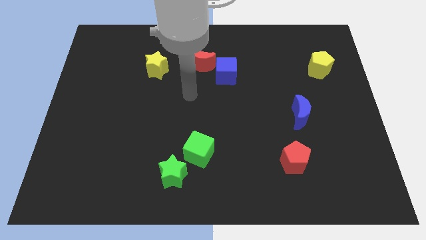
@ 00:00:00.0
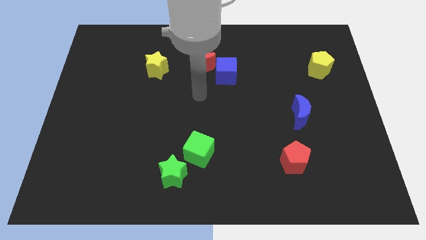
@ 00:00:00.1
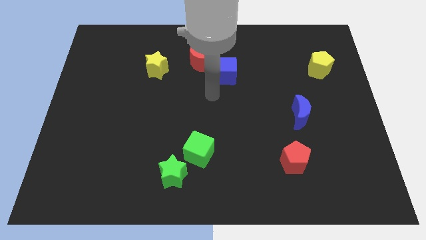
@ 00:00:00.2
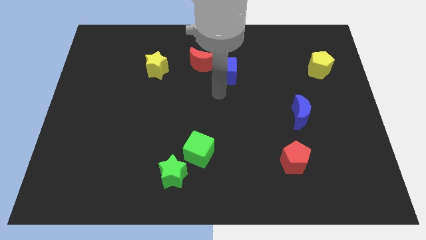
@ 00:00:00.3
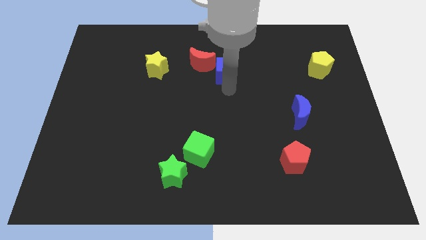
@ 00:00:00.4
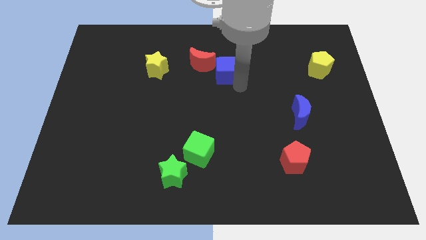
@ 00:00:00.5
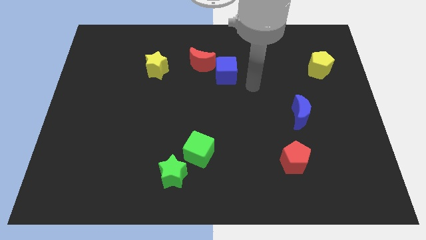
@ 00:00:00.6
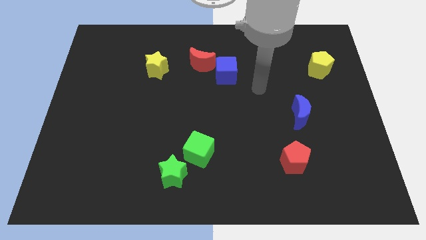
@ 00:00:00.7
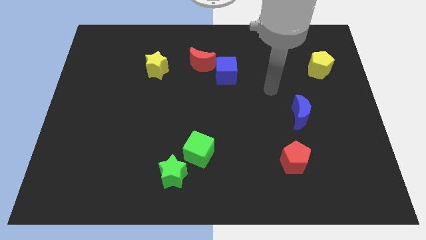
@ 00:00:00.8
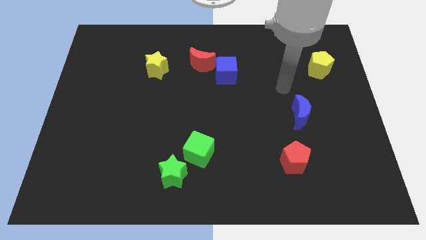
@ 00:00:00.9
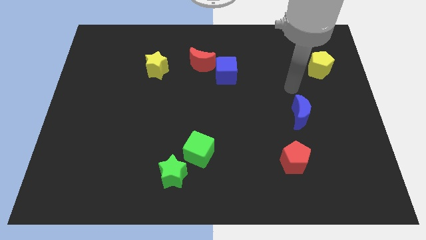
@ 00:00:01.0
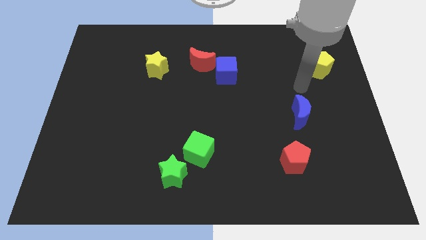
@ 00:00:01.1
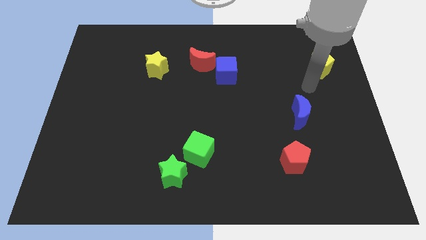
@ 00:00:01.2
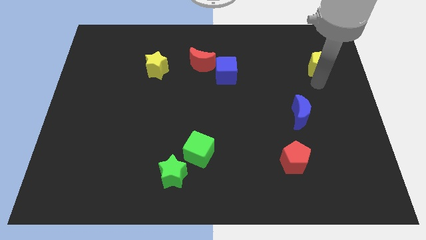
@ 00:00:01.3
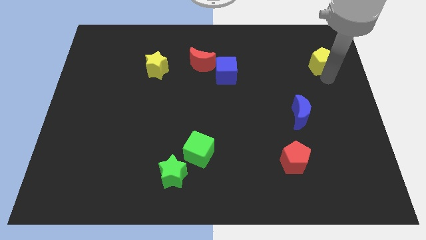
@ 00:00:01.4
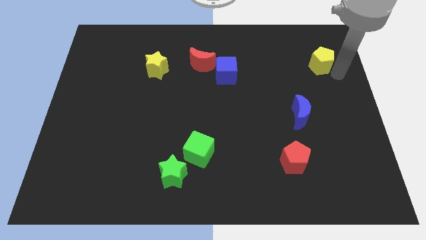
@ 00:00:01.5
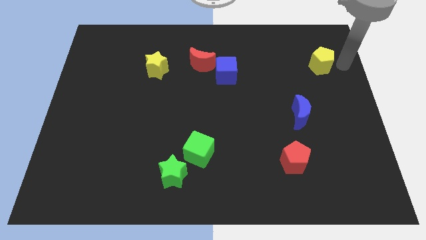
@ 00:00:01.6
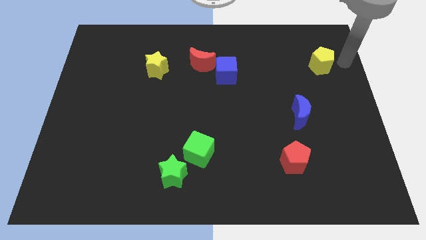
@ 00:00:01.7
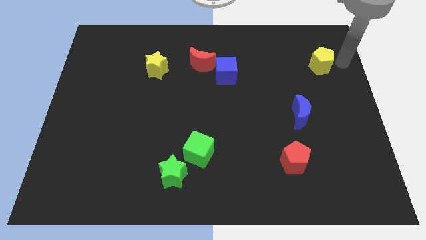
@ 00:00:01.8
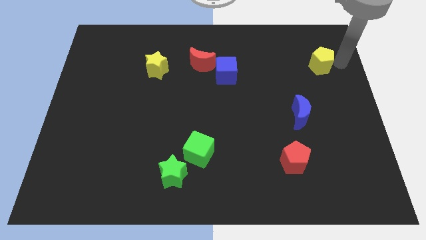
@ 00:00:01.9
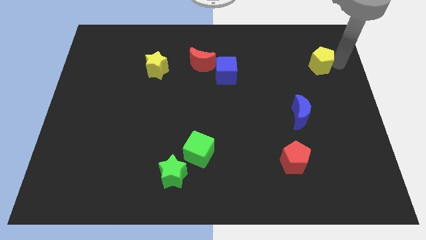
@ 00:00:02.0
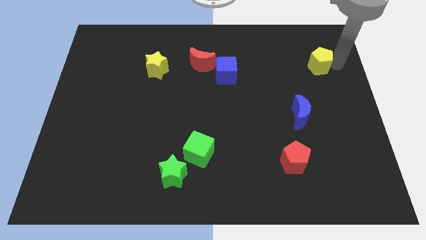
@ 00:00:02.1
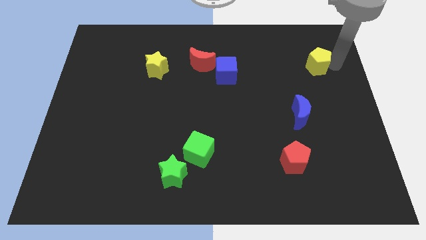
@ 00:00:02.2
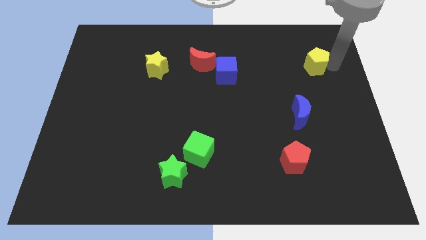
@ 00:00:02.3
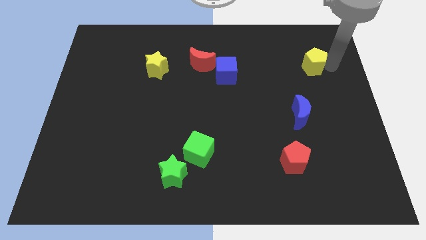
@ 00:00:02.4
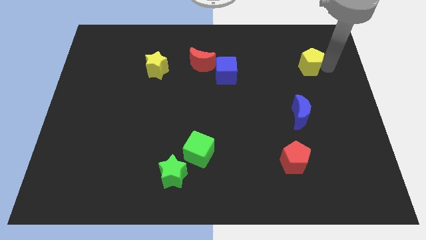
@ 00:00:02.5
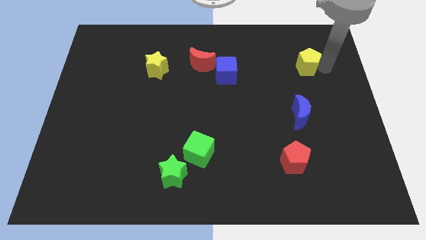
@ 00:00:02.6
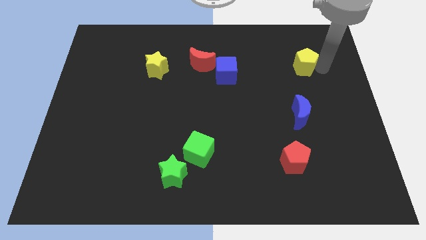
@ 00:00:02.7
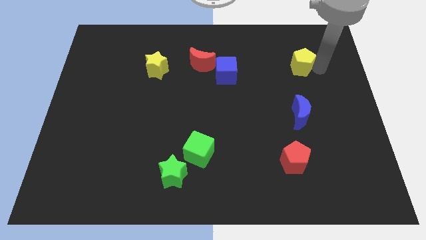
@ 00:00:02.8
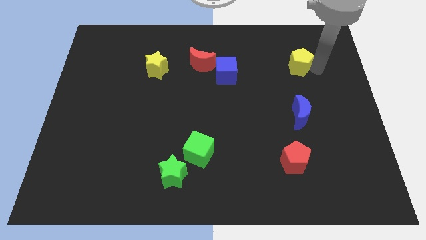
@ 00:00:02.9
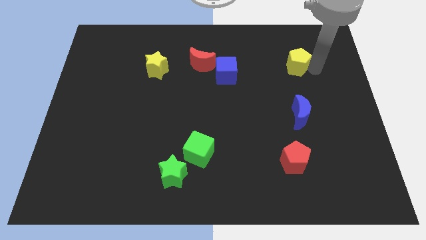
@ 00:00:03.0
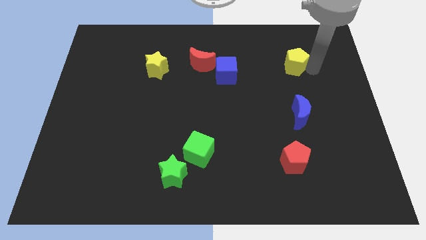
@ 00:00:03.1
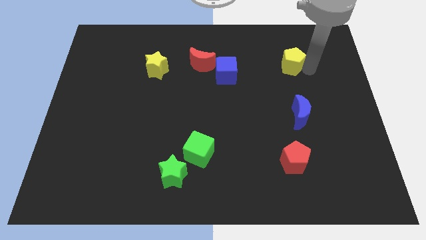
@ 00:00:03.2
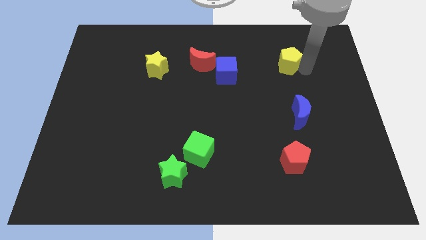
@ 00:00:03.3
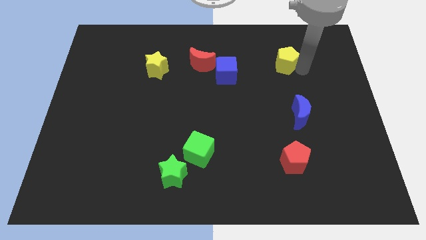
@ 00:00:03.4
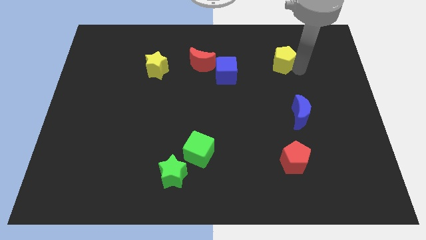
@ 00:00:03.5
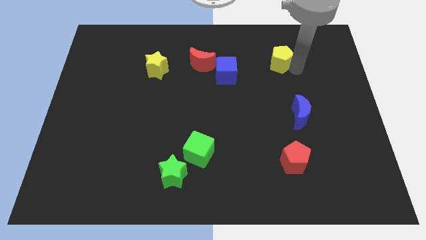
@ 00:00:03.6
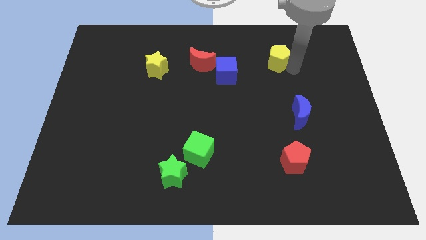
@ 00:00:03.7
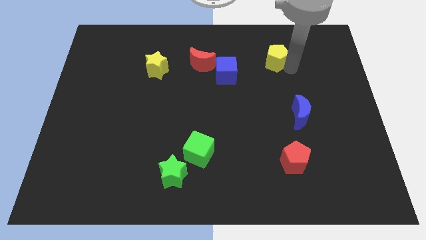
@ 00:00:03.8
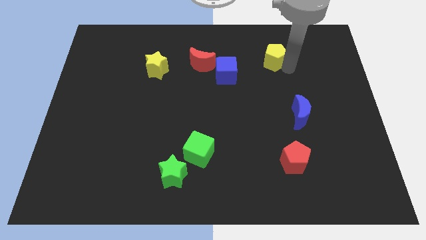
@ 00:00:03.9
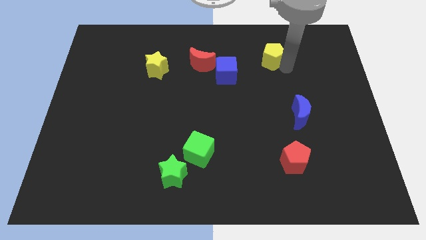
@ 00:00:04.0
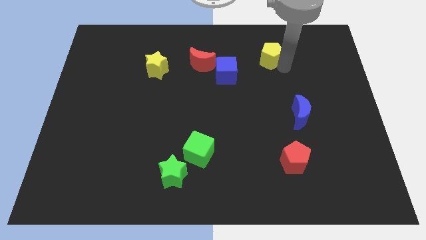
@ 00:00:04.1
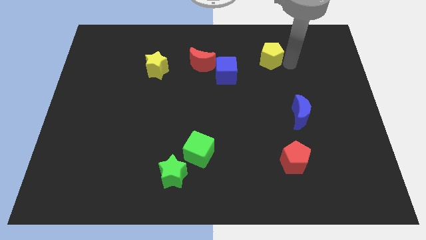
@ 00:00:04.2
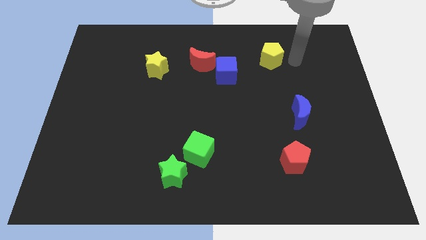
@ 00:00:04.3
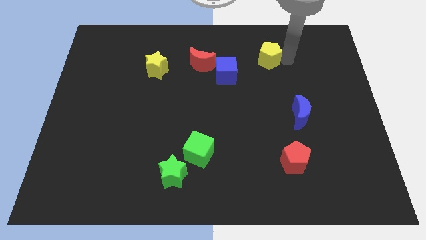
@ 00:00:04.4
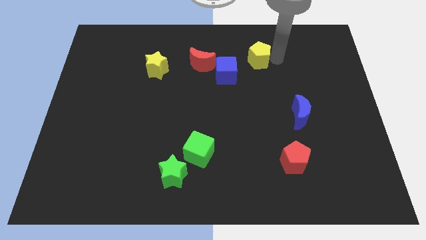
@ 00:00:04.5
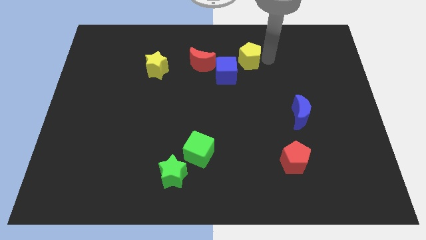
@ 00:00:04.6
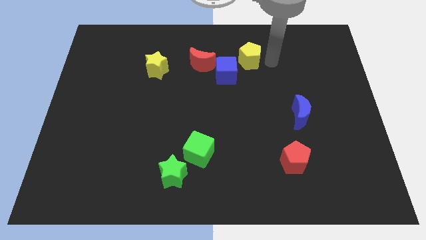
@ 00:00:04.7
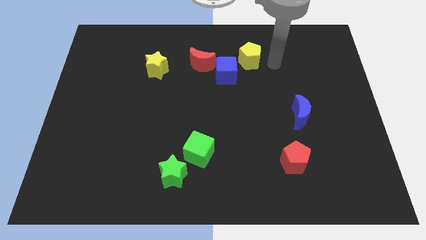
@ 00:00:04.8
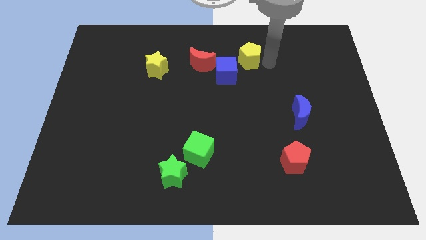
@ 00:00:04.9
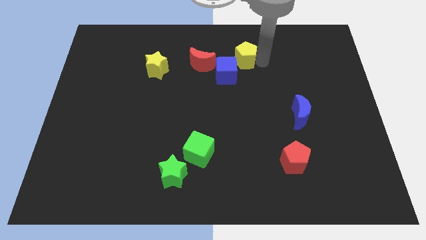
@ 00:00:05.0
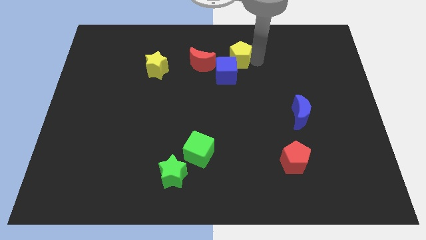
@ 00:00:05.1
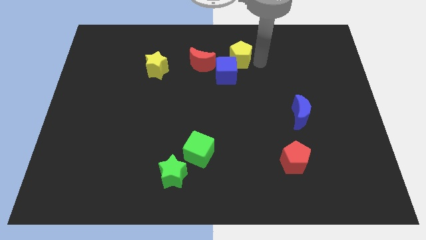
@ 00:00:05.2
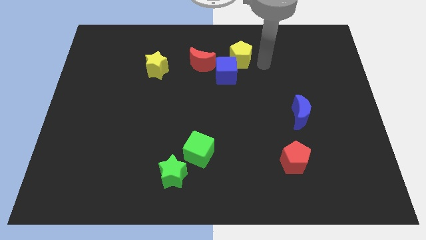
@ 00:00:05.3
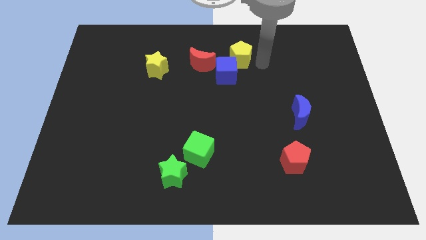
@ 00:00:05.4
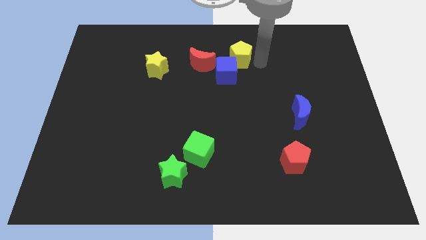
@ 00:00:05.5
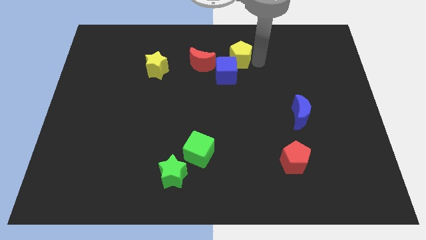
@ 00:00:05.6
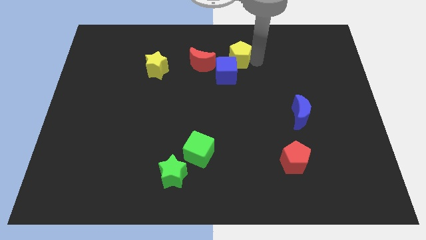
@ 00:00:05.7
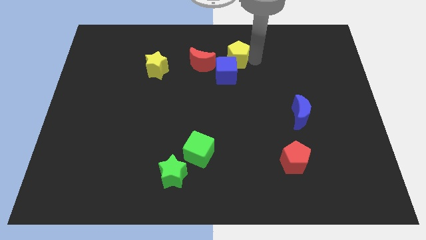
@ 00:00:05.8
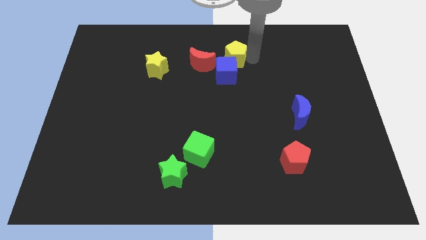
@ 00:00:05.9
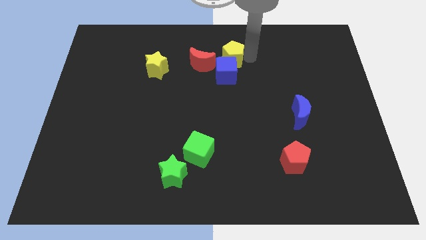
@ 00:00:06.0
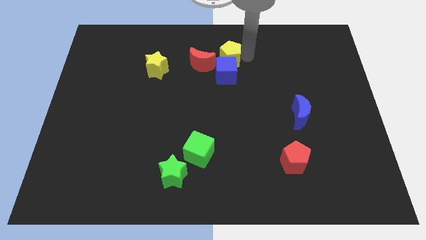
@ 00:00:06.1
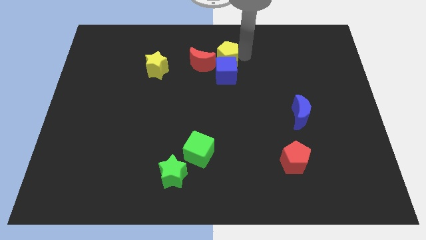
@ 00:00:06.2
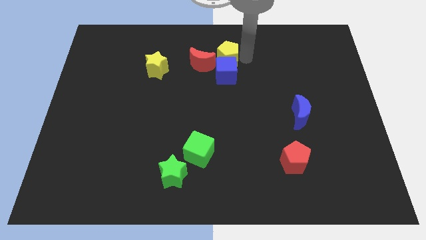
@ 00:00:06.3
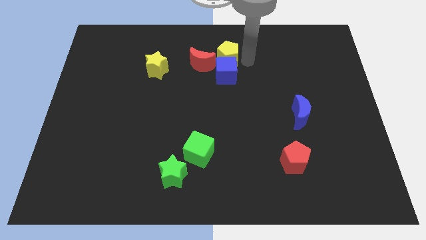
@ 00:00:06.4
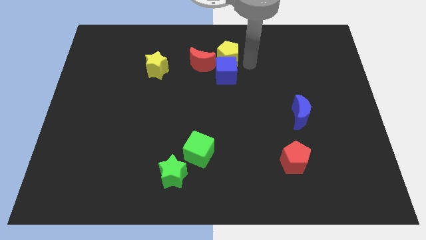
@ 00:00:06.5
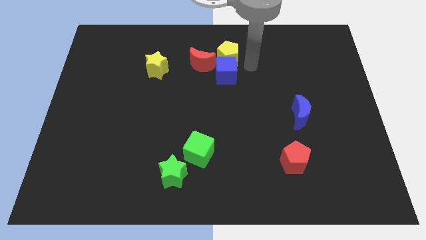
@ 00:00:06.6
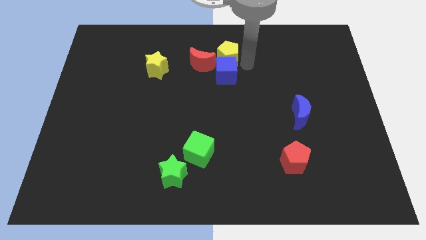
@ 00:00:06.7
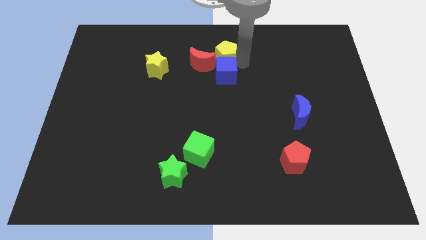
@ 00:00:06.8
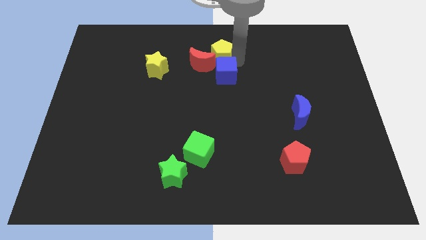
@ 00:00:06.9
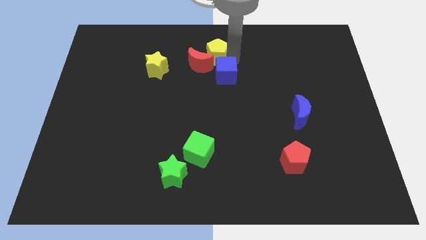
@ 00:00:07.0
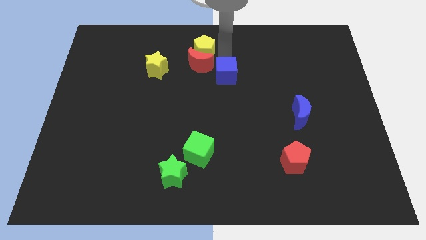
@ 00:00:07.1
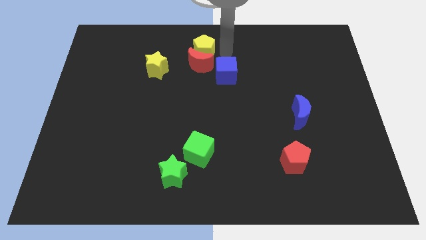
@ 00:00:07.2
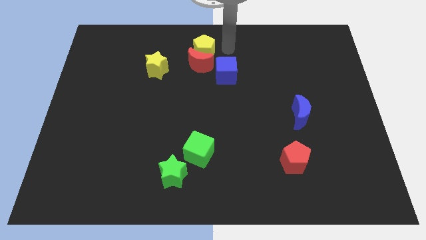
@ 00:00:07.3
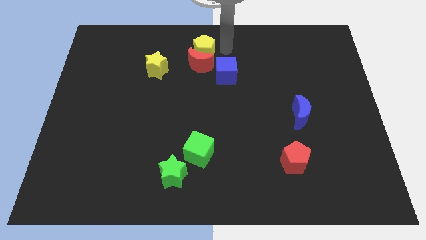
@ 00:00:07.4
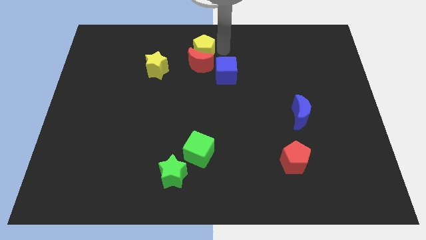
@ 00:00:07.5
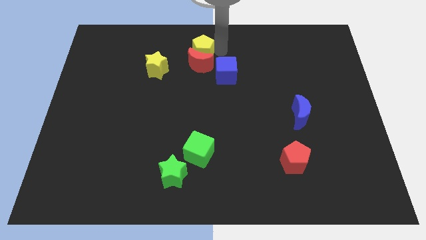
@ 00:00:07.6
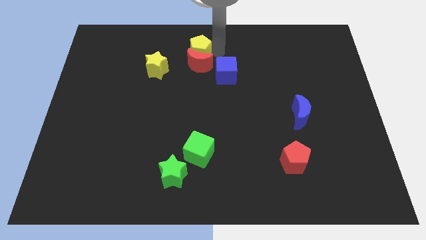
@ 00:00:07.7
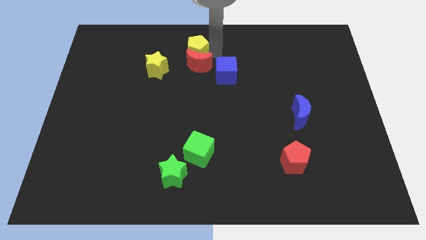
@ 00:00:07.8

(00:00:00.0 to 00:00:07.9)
slide the yellow pentagon diagonally up and to the right of the yellow star

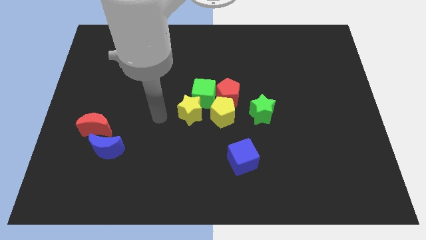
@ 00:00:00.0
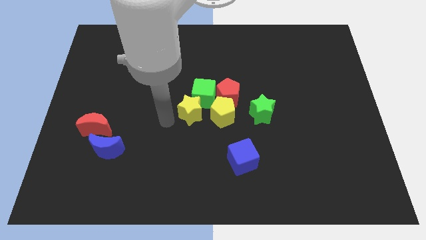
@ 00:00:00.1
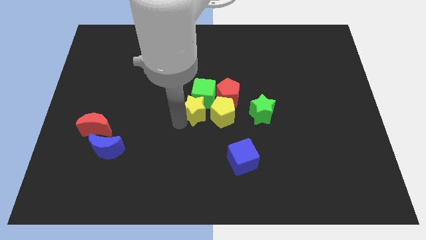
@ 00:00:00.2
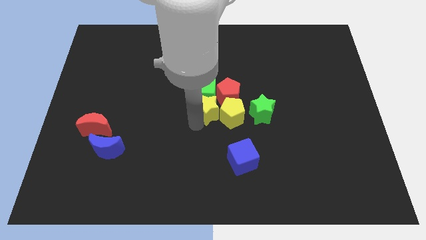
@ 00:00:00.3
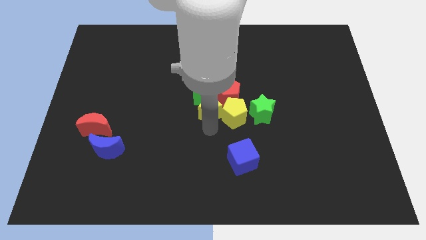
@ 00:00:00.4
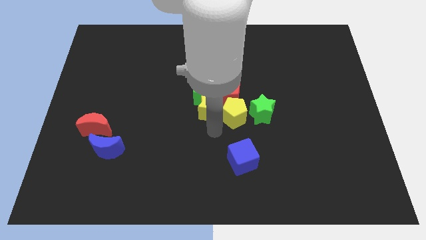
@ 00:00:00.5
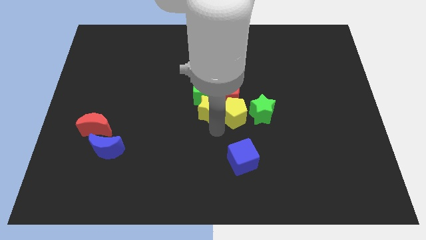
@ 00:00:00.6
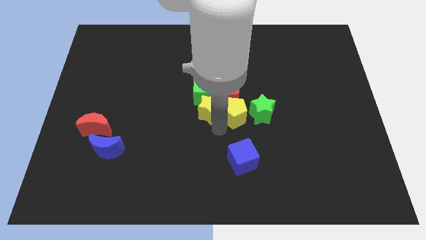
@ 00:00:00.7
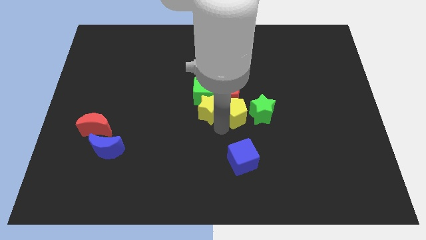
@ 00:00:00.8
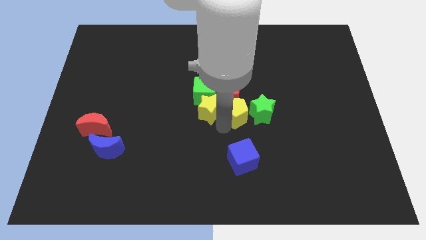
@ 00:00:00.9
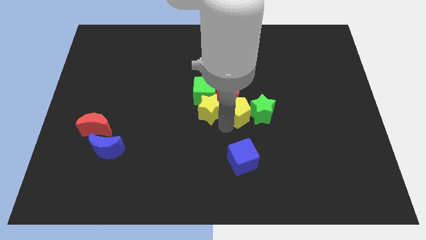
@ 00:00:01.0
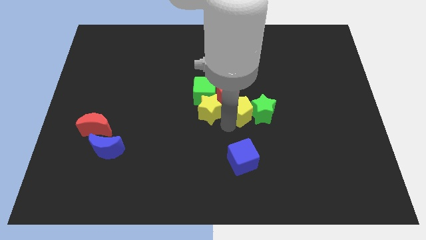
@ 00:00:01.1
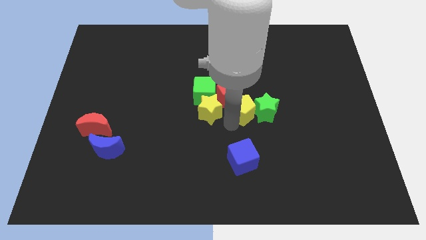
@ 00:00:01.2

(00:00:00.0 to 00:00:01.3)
slide the yellow pentagon to the right of the red pentagon
